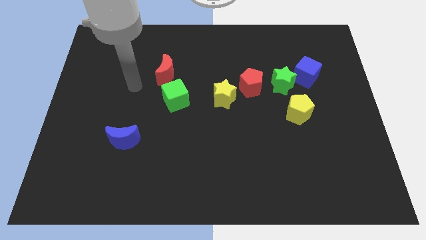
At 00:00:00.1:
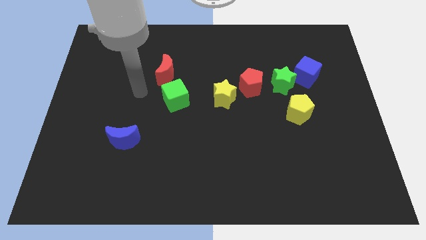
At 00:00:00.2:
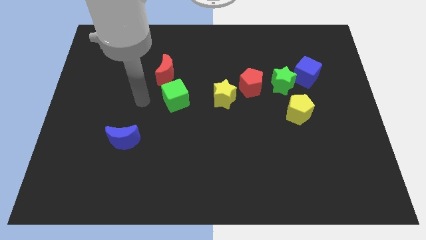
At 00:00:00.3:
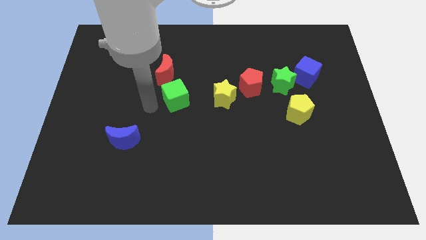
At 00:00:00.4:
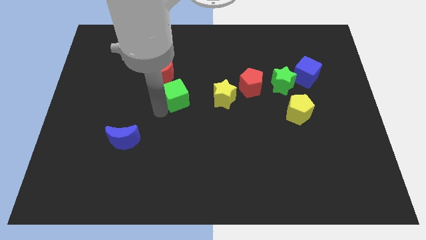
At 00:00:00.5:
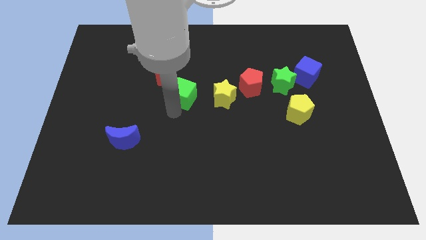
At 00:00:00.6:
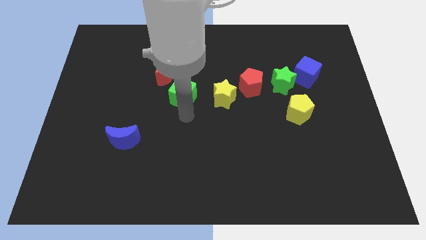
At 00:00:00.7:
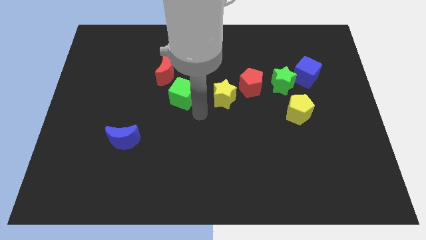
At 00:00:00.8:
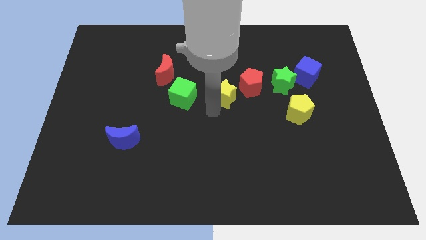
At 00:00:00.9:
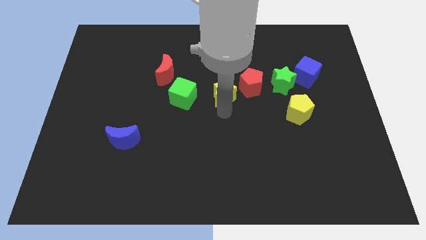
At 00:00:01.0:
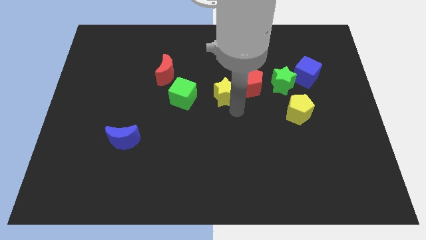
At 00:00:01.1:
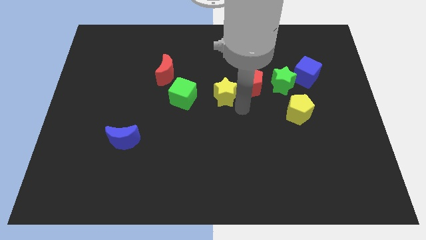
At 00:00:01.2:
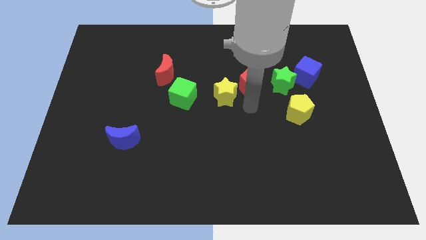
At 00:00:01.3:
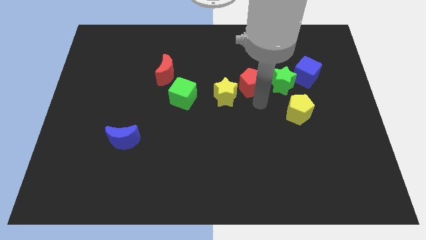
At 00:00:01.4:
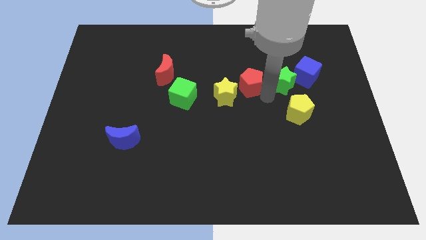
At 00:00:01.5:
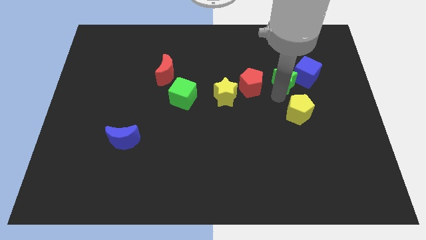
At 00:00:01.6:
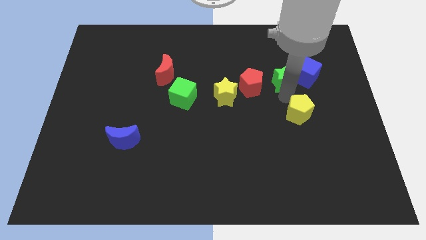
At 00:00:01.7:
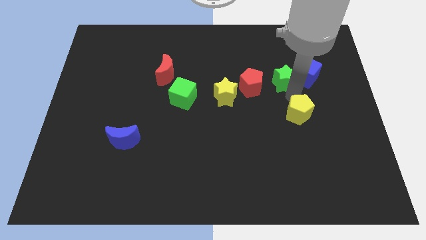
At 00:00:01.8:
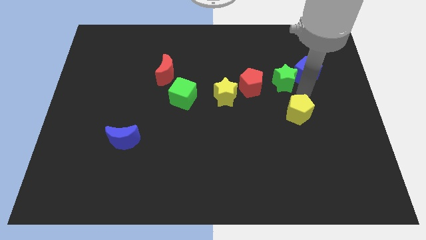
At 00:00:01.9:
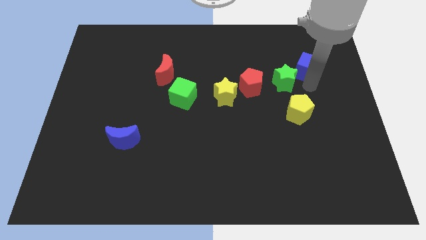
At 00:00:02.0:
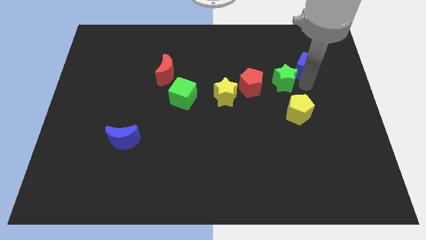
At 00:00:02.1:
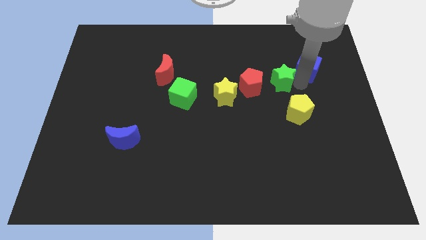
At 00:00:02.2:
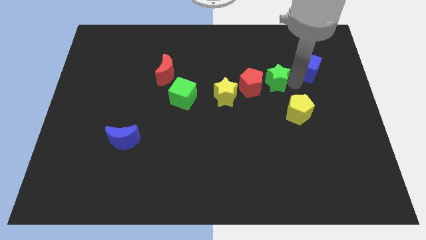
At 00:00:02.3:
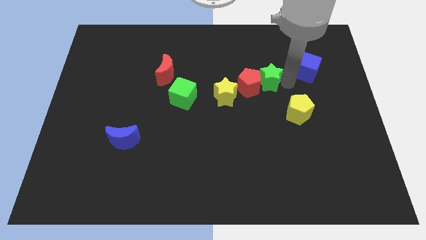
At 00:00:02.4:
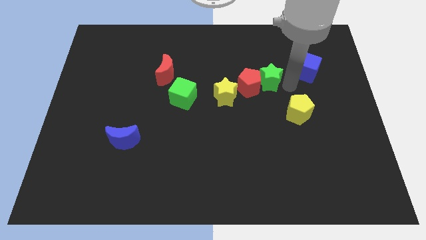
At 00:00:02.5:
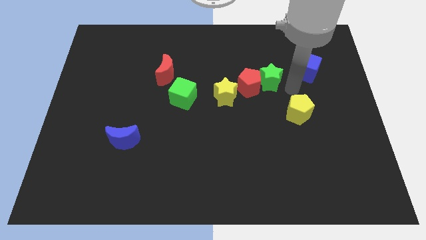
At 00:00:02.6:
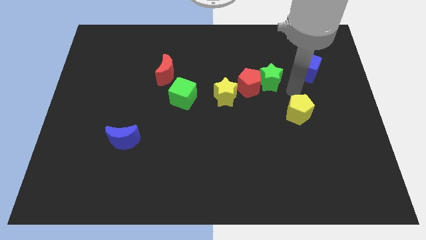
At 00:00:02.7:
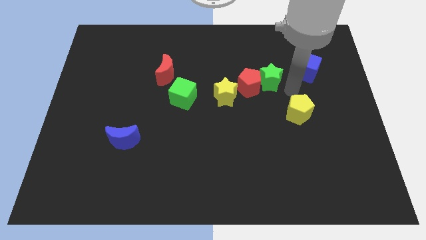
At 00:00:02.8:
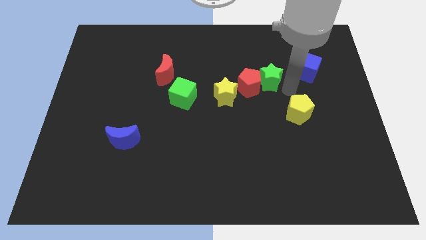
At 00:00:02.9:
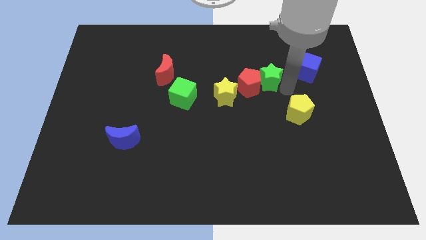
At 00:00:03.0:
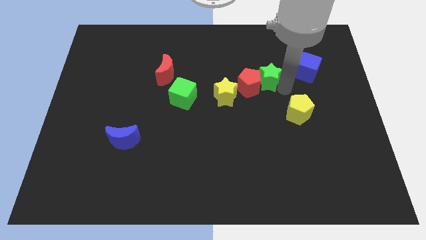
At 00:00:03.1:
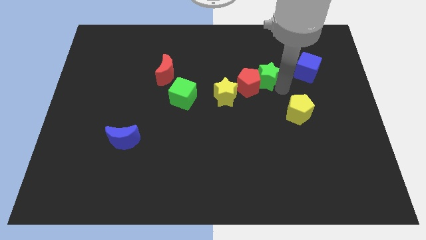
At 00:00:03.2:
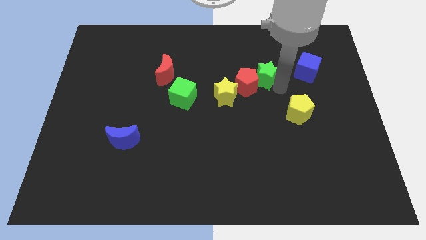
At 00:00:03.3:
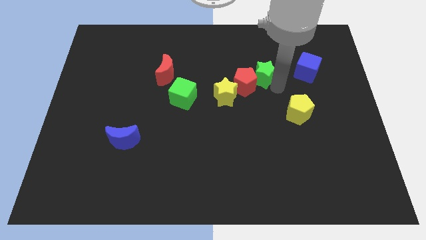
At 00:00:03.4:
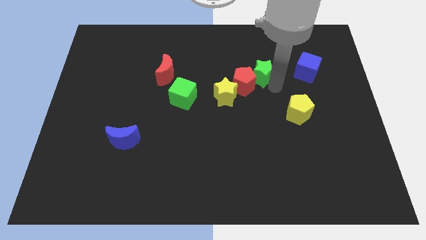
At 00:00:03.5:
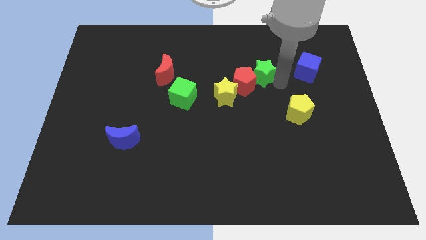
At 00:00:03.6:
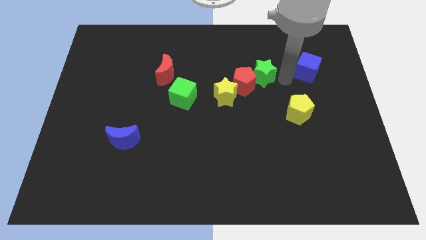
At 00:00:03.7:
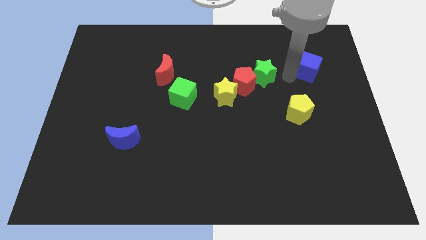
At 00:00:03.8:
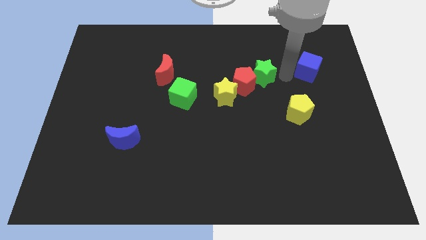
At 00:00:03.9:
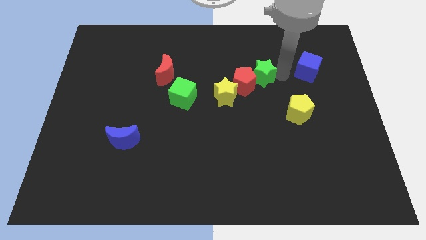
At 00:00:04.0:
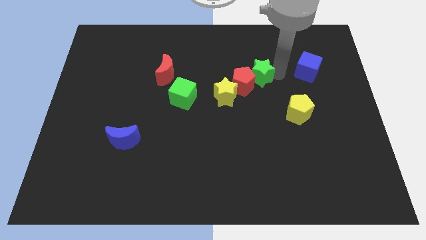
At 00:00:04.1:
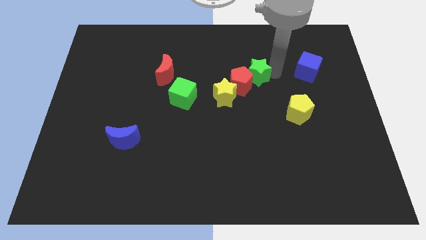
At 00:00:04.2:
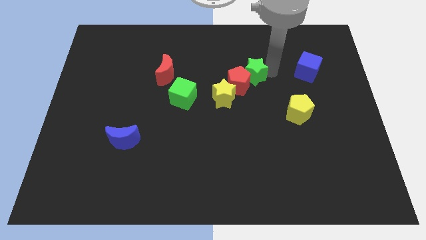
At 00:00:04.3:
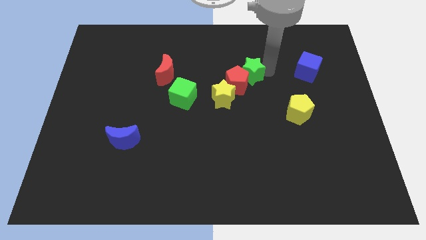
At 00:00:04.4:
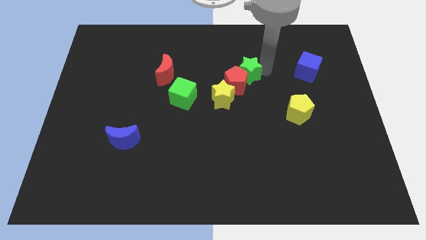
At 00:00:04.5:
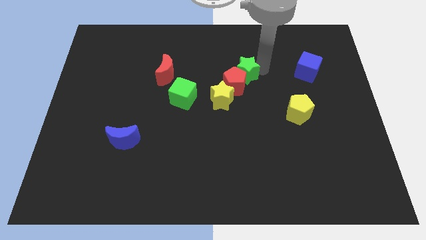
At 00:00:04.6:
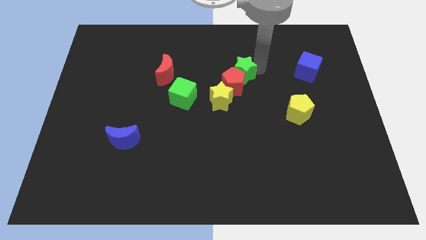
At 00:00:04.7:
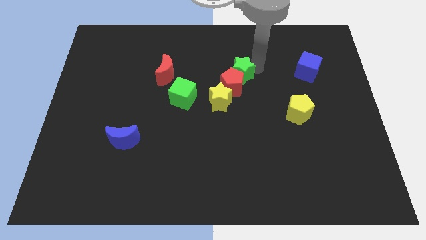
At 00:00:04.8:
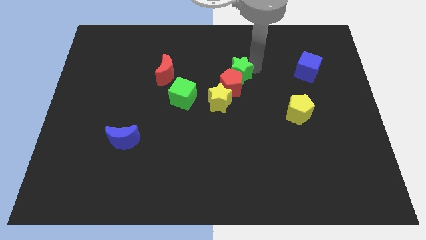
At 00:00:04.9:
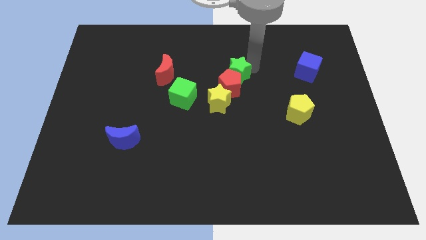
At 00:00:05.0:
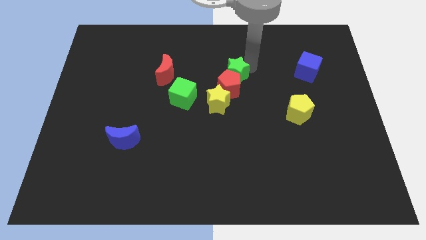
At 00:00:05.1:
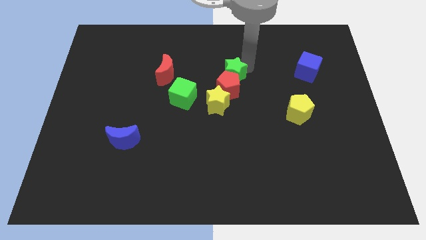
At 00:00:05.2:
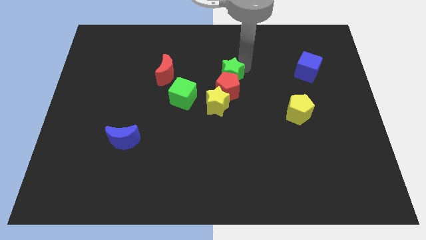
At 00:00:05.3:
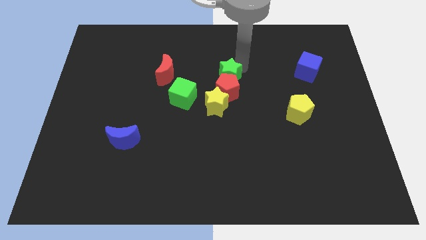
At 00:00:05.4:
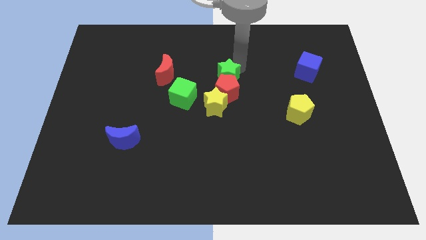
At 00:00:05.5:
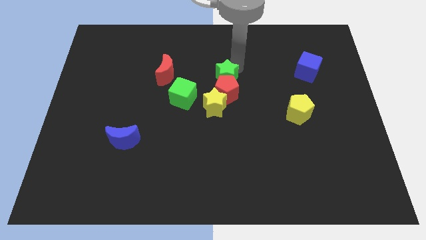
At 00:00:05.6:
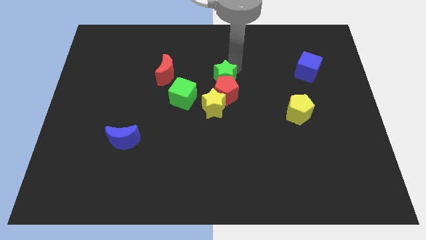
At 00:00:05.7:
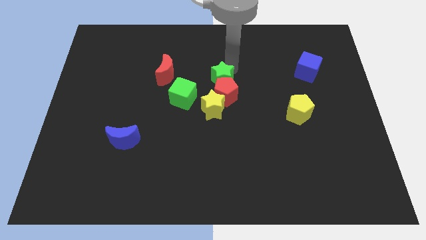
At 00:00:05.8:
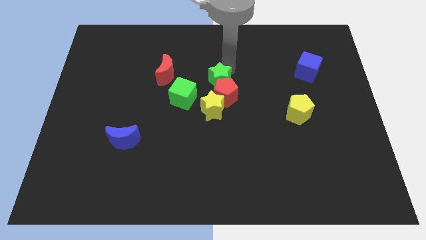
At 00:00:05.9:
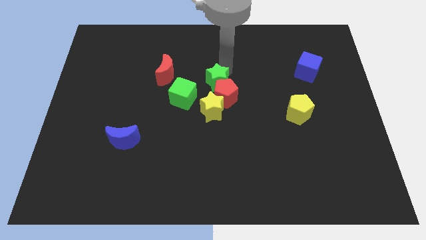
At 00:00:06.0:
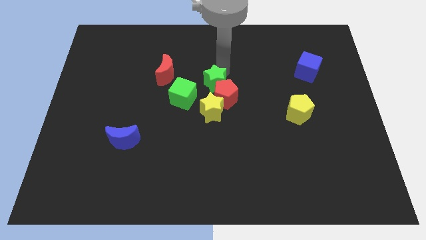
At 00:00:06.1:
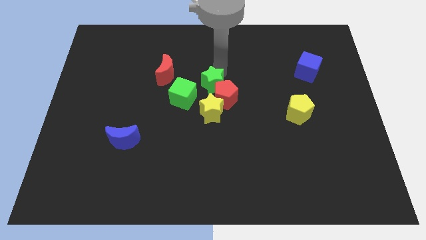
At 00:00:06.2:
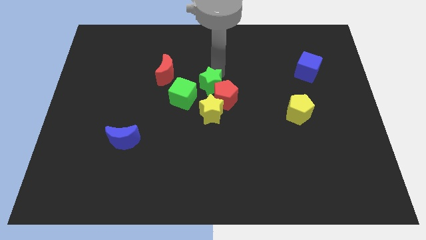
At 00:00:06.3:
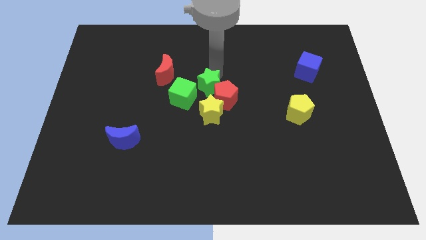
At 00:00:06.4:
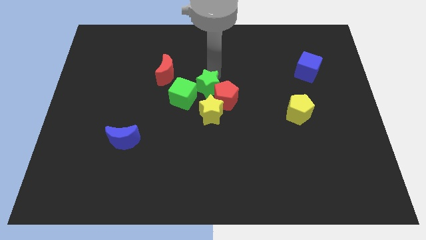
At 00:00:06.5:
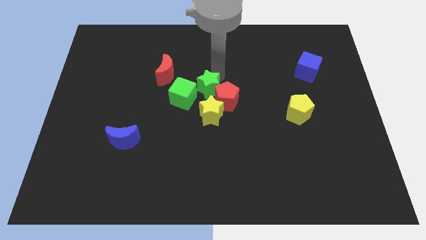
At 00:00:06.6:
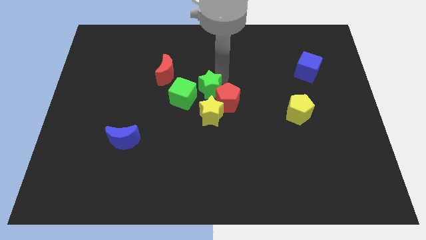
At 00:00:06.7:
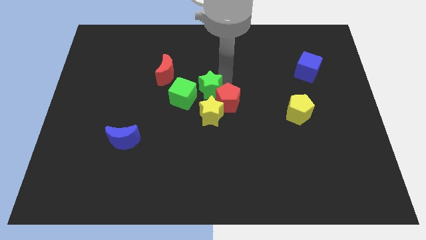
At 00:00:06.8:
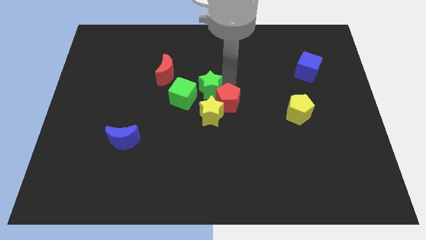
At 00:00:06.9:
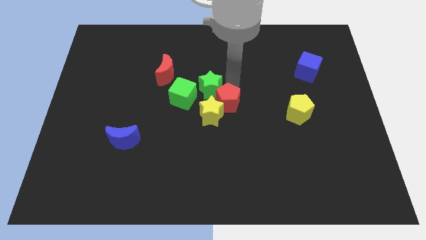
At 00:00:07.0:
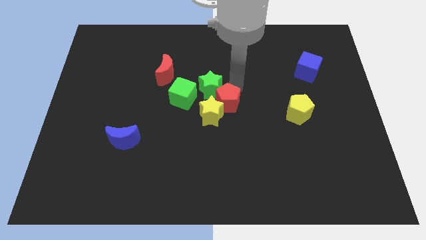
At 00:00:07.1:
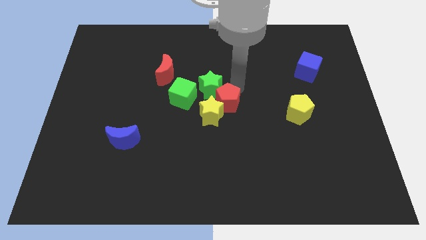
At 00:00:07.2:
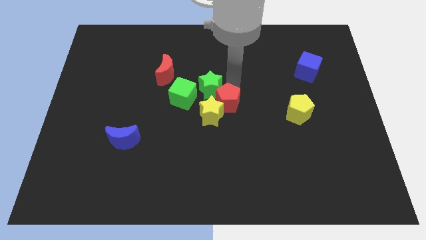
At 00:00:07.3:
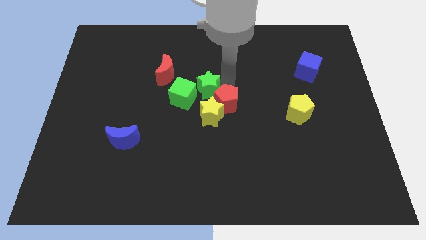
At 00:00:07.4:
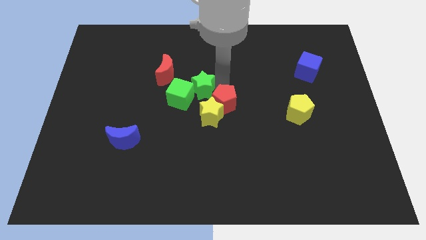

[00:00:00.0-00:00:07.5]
put the green star close to the green cube

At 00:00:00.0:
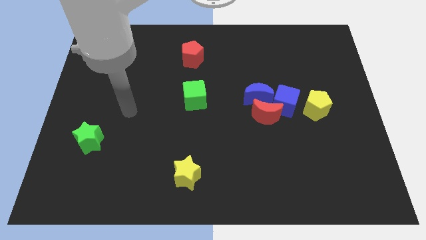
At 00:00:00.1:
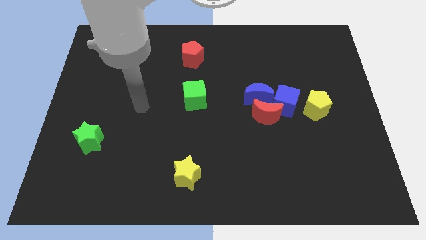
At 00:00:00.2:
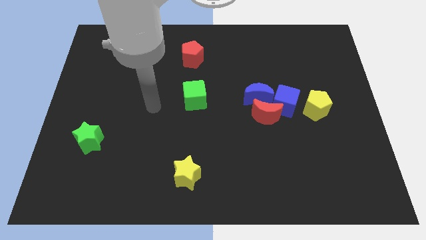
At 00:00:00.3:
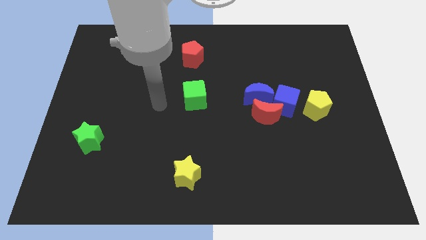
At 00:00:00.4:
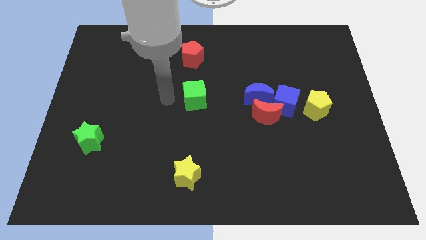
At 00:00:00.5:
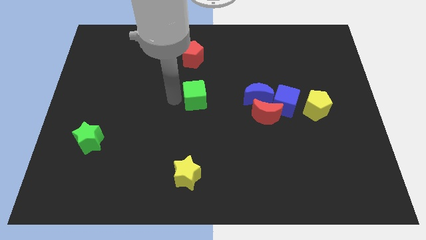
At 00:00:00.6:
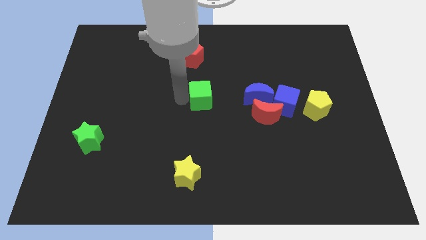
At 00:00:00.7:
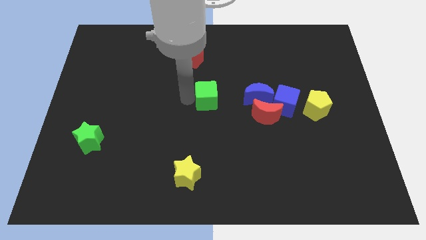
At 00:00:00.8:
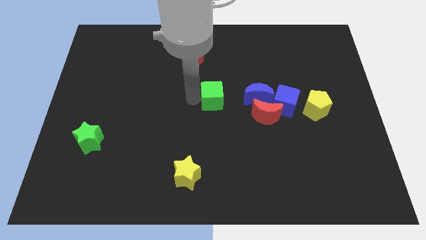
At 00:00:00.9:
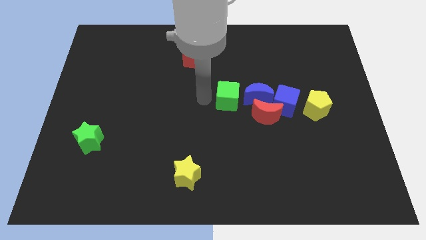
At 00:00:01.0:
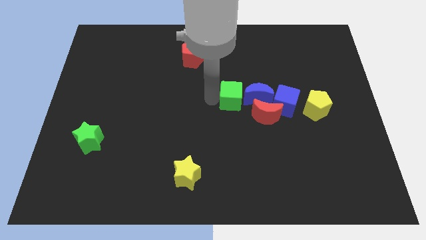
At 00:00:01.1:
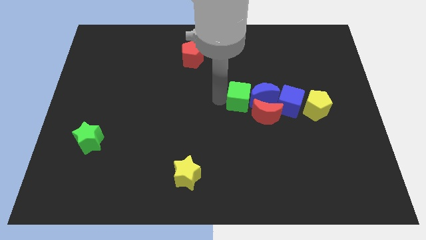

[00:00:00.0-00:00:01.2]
move the green cube to the blue moon
